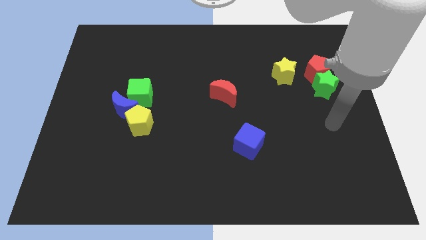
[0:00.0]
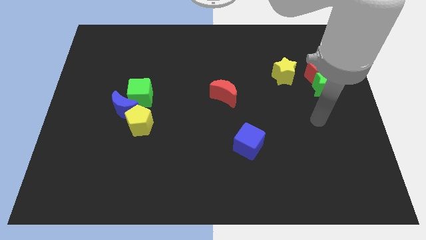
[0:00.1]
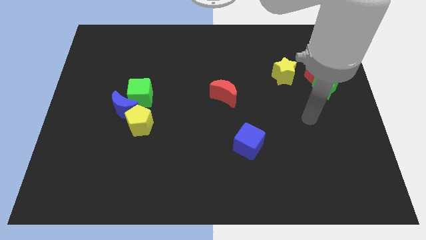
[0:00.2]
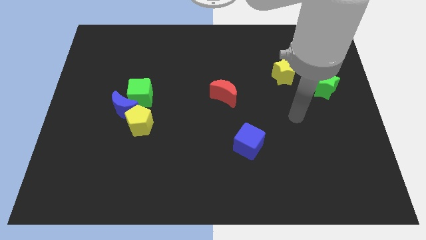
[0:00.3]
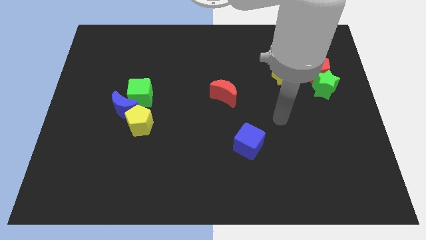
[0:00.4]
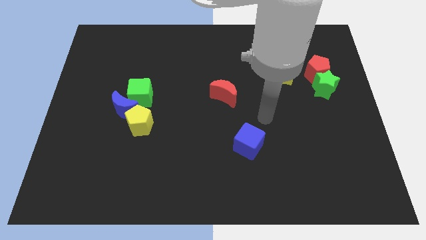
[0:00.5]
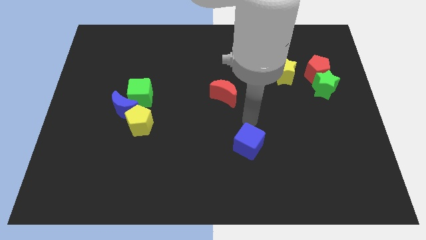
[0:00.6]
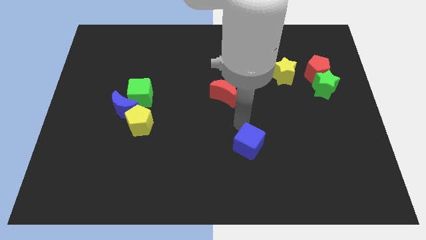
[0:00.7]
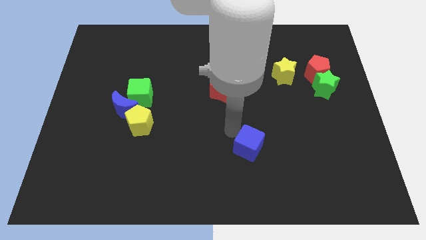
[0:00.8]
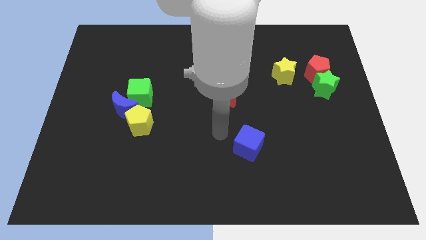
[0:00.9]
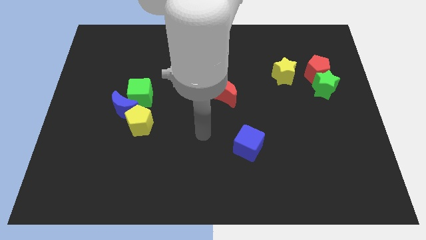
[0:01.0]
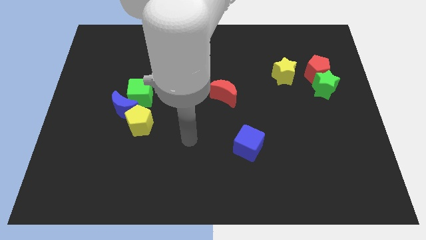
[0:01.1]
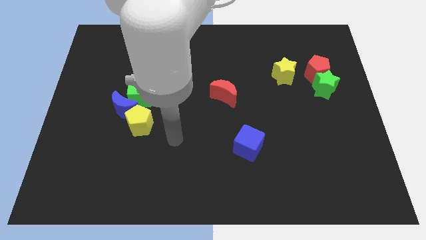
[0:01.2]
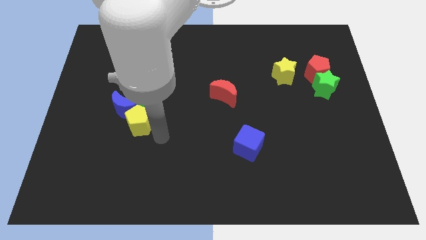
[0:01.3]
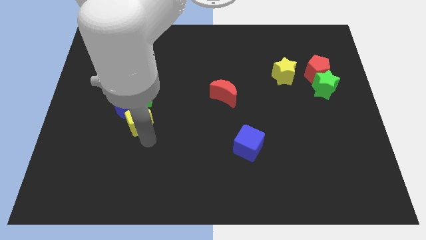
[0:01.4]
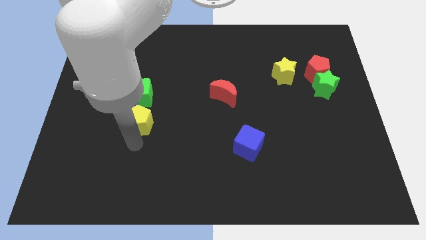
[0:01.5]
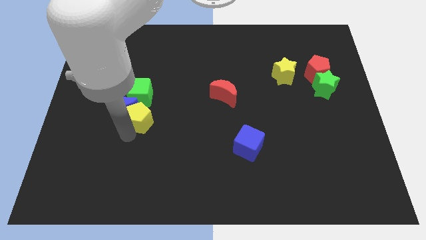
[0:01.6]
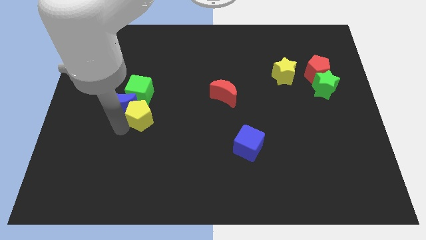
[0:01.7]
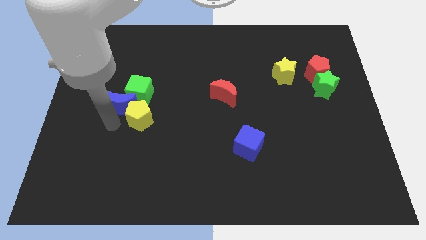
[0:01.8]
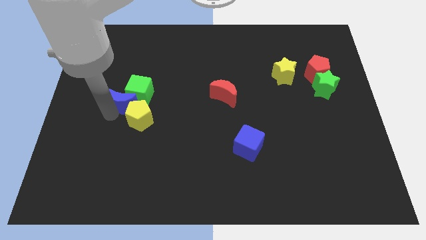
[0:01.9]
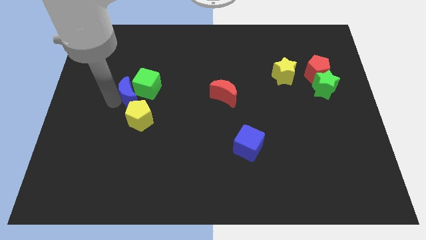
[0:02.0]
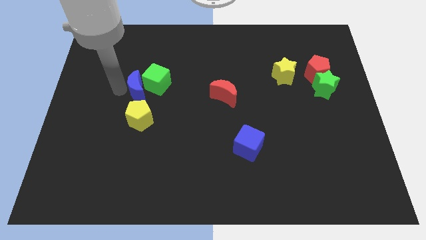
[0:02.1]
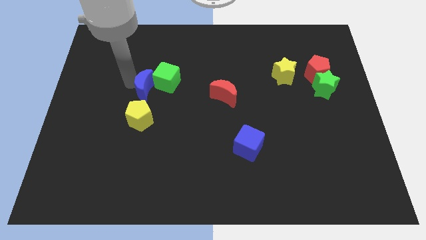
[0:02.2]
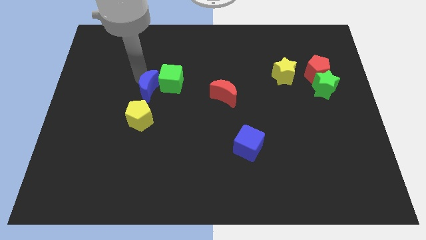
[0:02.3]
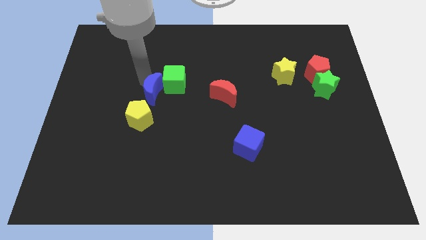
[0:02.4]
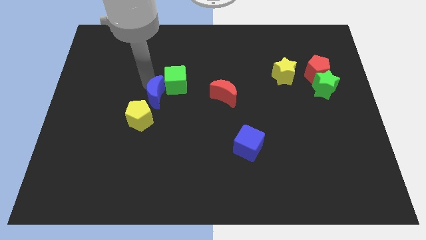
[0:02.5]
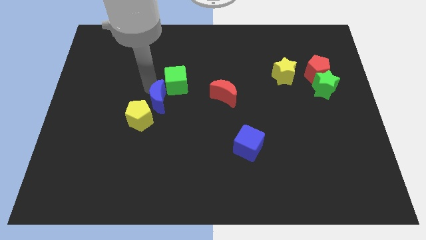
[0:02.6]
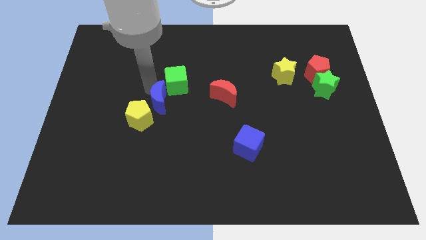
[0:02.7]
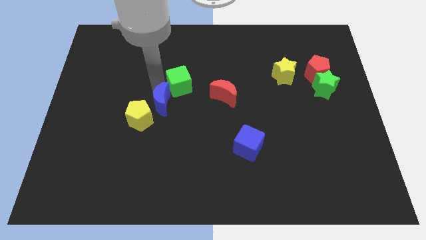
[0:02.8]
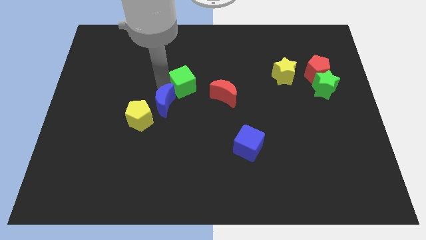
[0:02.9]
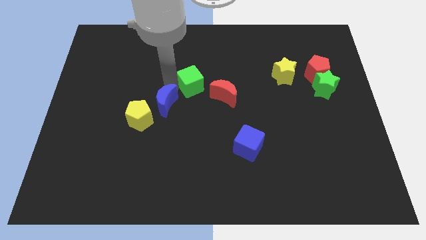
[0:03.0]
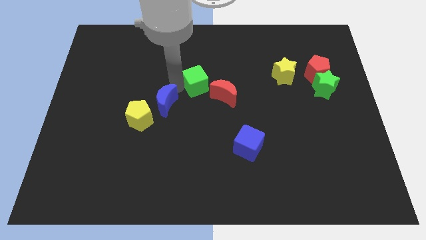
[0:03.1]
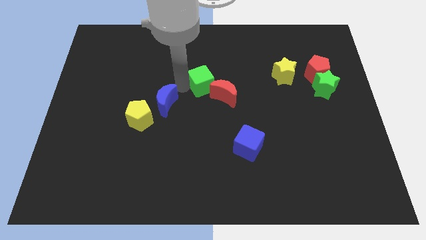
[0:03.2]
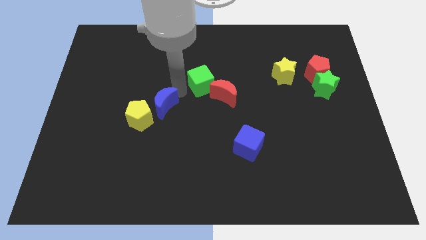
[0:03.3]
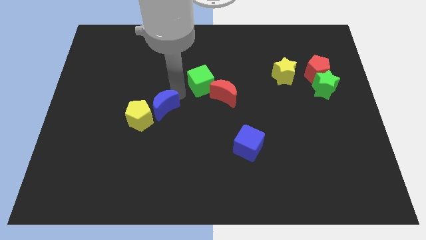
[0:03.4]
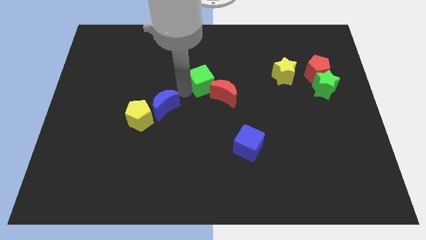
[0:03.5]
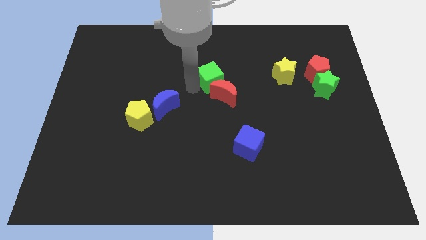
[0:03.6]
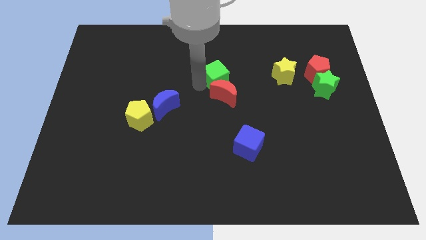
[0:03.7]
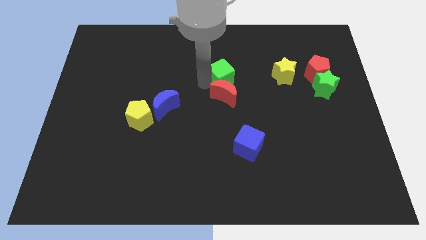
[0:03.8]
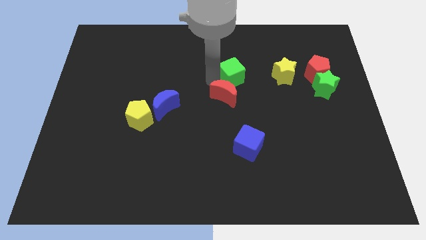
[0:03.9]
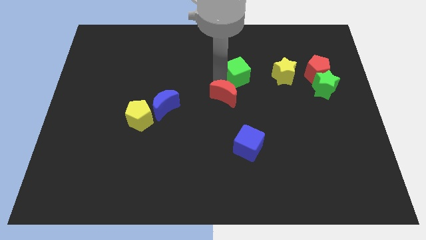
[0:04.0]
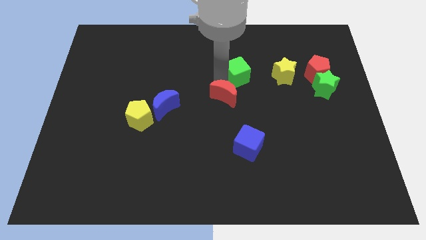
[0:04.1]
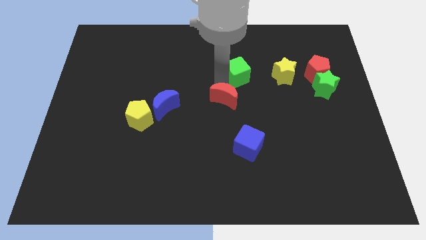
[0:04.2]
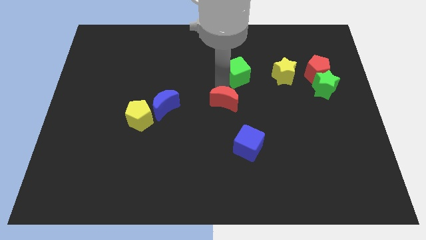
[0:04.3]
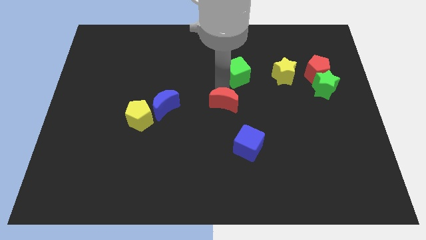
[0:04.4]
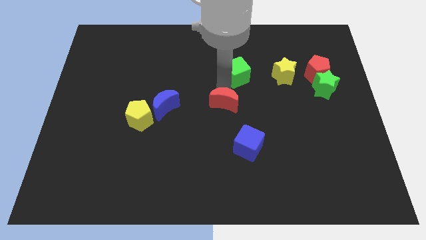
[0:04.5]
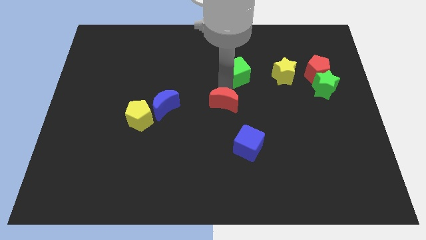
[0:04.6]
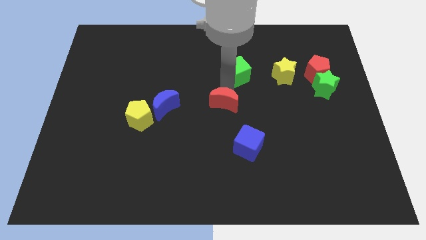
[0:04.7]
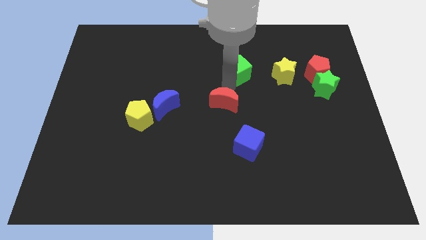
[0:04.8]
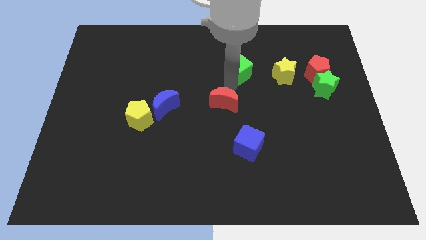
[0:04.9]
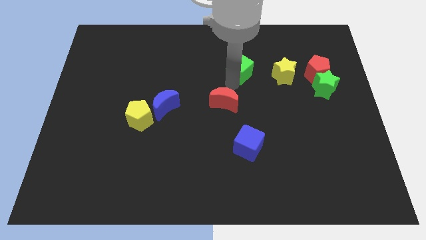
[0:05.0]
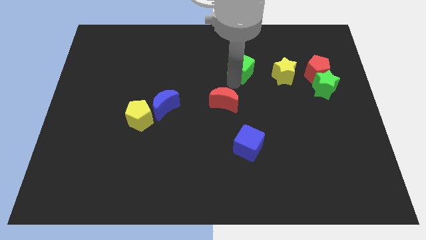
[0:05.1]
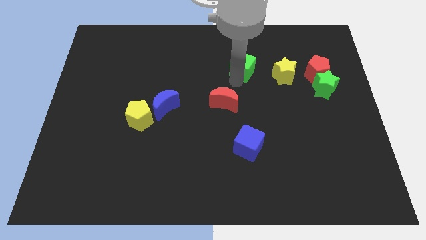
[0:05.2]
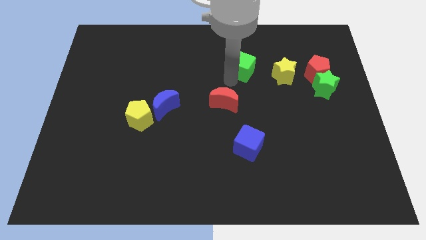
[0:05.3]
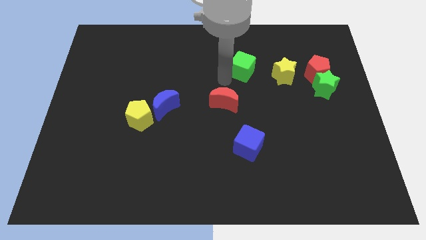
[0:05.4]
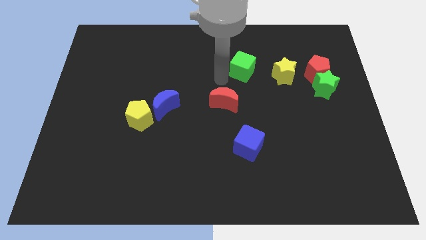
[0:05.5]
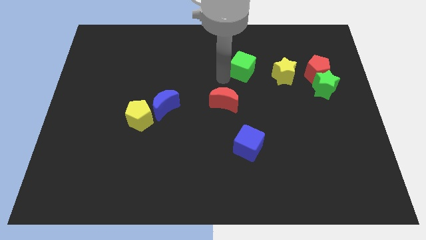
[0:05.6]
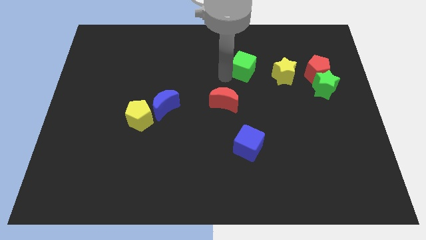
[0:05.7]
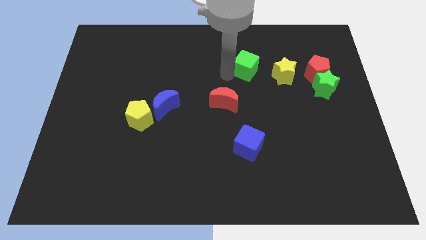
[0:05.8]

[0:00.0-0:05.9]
move the green cube to the top left side of the yellow star

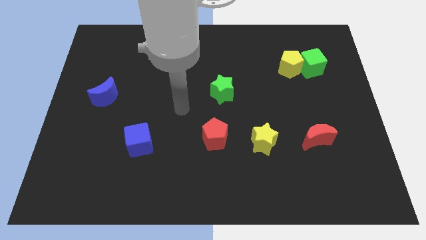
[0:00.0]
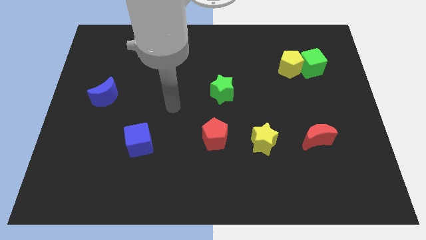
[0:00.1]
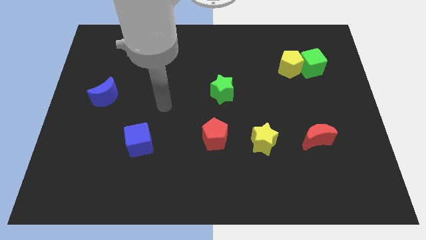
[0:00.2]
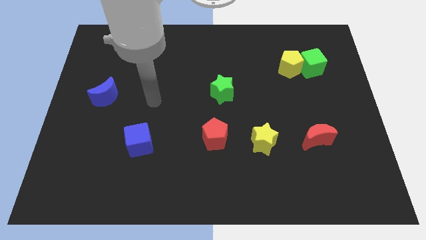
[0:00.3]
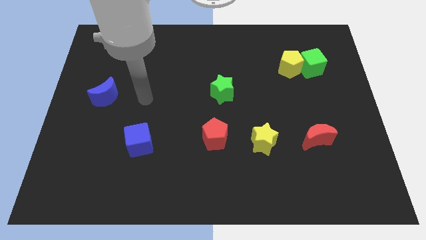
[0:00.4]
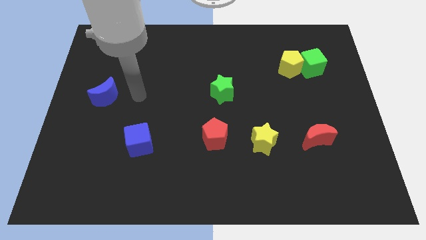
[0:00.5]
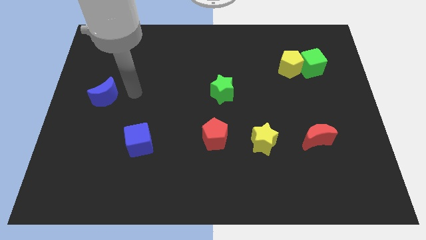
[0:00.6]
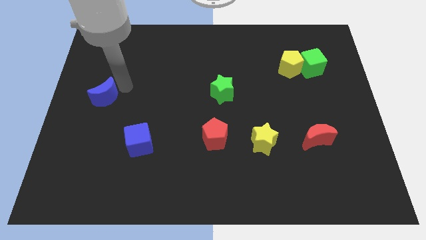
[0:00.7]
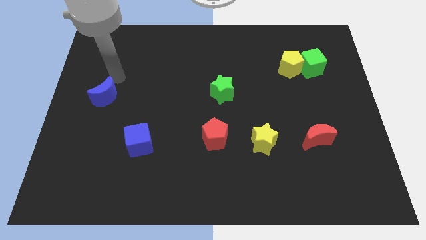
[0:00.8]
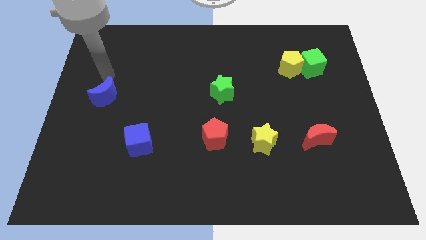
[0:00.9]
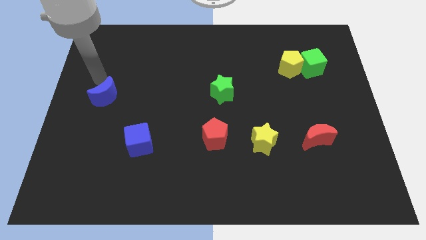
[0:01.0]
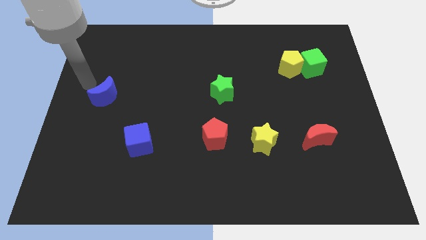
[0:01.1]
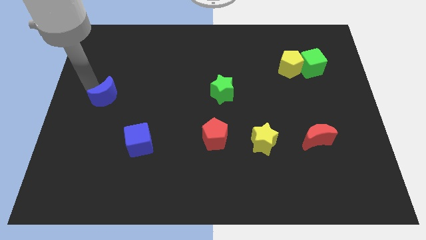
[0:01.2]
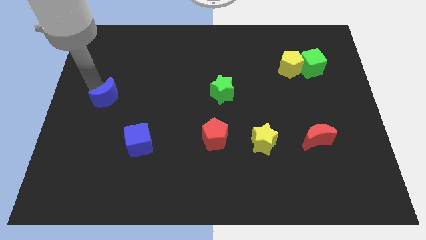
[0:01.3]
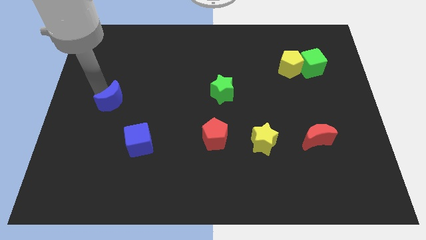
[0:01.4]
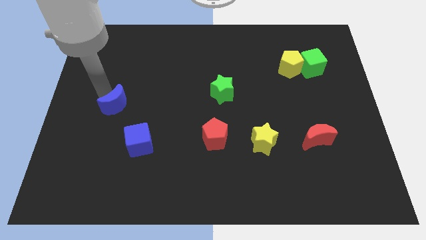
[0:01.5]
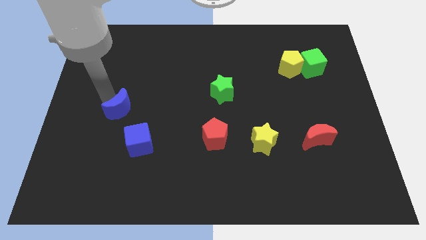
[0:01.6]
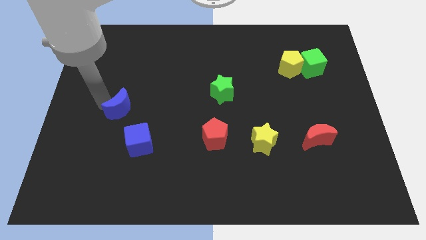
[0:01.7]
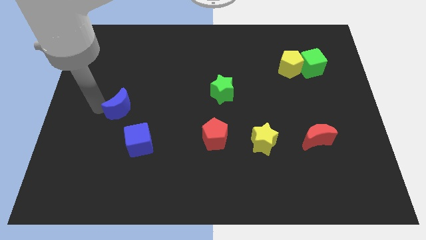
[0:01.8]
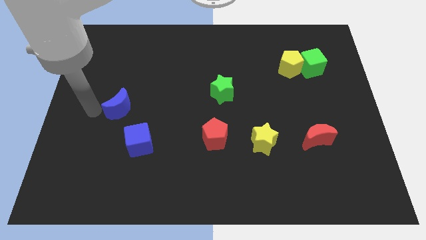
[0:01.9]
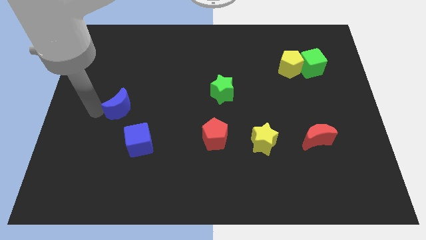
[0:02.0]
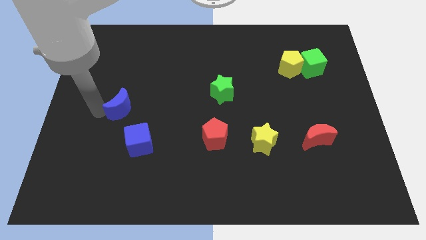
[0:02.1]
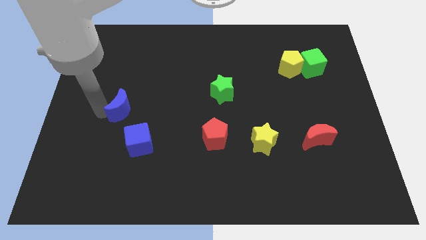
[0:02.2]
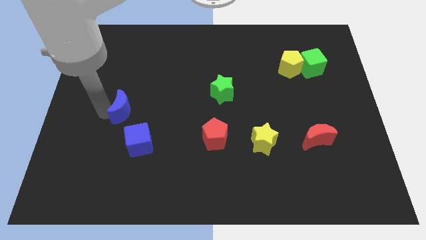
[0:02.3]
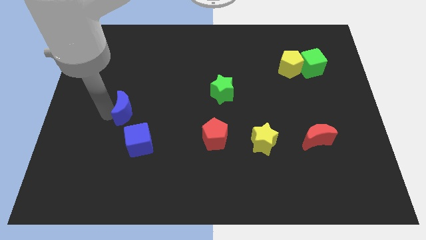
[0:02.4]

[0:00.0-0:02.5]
move the blue moon to the top of the blue cube

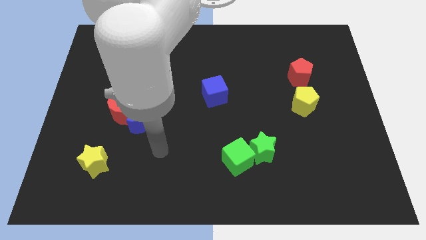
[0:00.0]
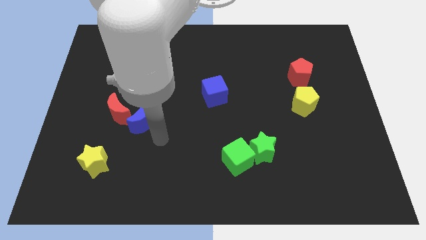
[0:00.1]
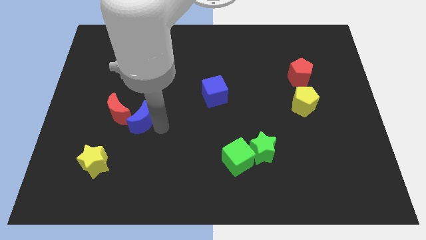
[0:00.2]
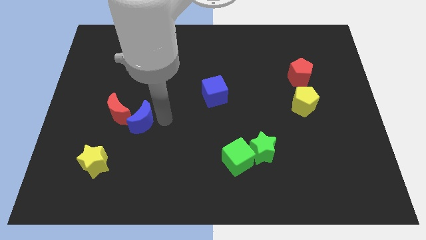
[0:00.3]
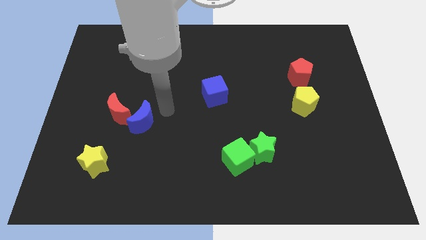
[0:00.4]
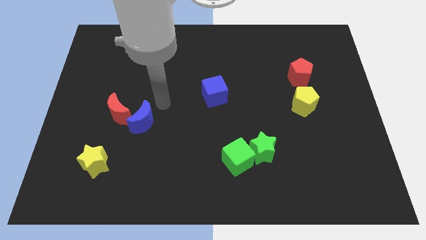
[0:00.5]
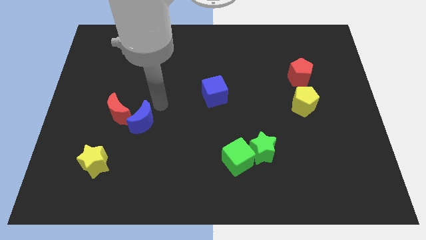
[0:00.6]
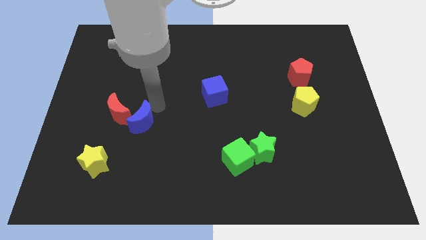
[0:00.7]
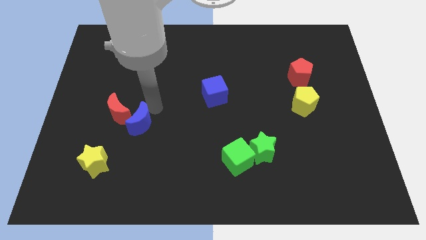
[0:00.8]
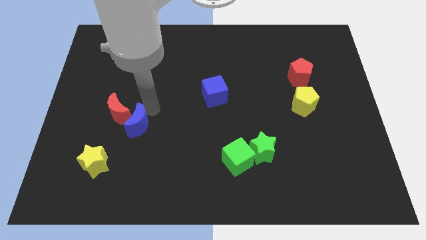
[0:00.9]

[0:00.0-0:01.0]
push the blue moon diagonally up and to the right of the yellow star
